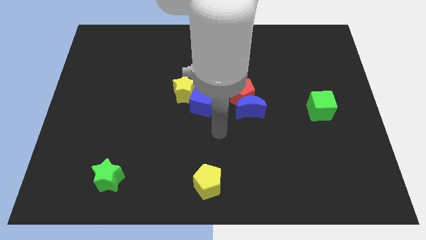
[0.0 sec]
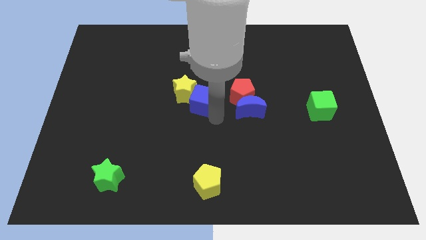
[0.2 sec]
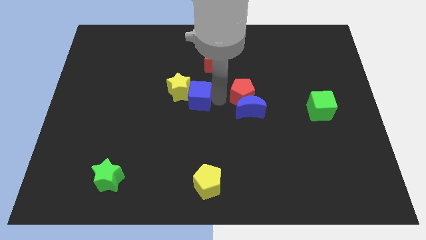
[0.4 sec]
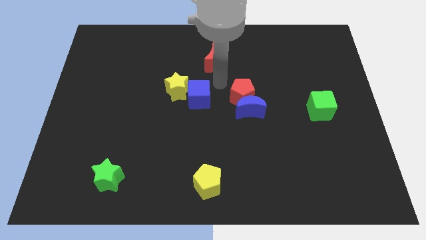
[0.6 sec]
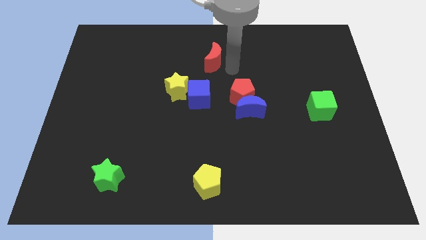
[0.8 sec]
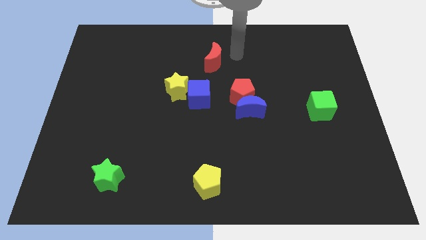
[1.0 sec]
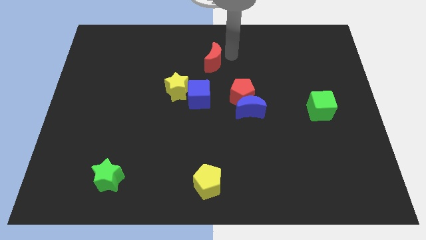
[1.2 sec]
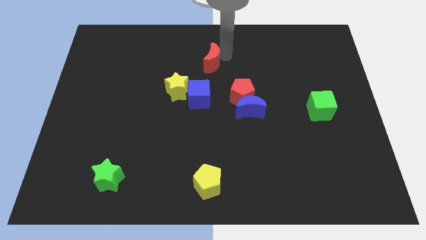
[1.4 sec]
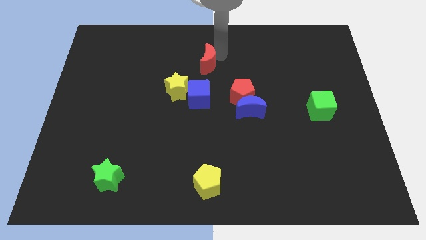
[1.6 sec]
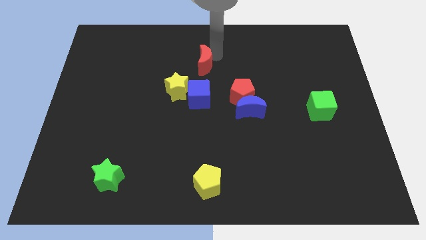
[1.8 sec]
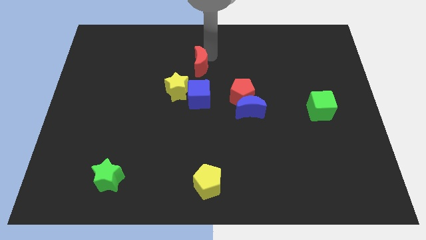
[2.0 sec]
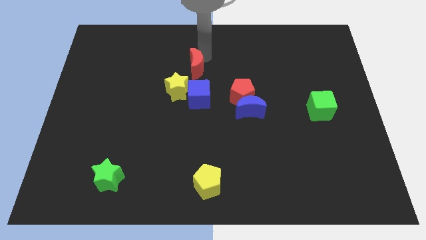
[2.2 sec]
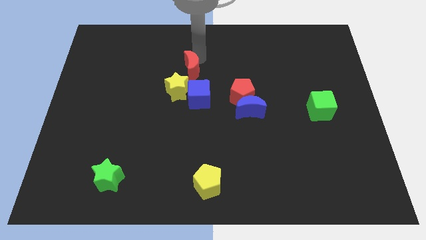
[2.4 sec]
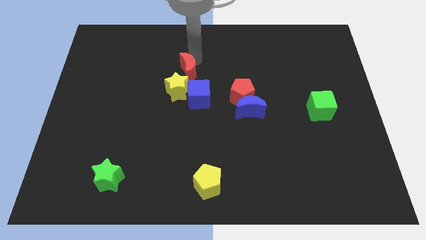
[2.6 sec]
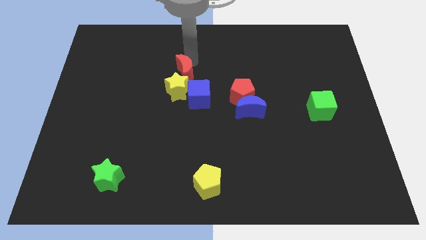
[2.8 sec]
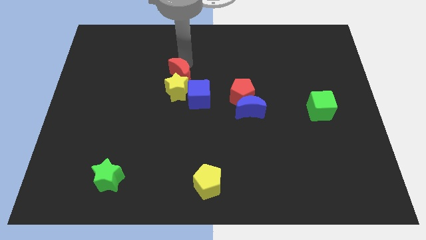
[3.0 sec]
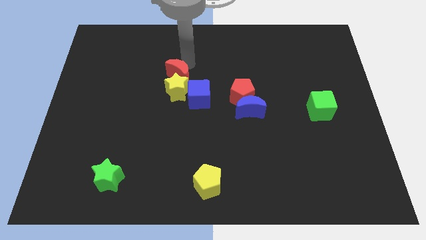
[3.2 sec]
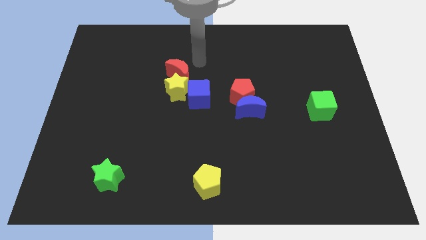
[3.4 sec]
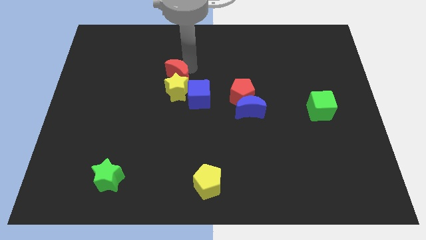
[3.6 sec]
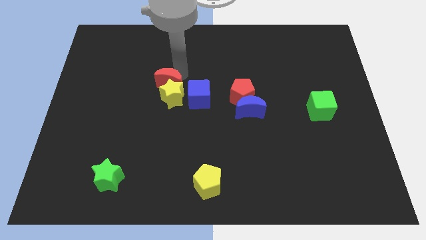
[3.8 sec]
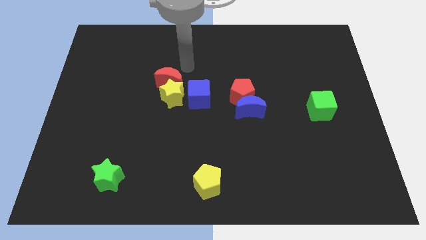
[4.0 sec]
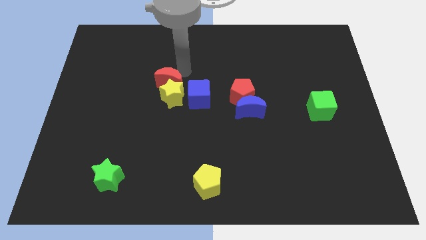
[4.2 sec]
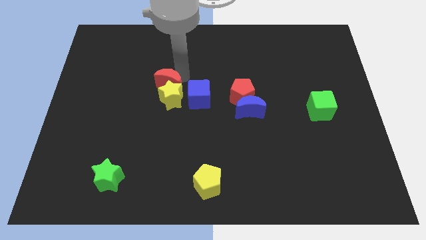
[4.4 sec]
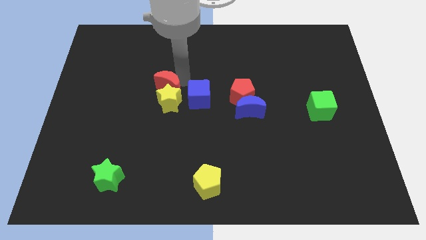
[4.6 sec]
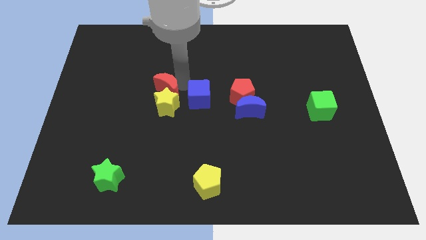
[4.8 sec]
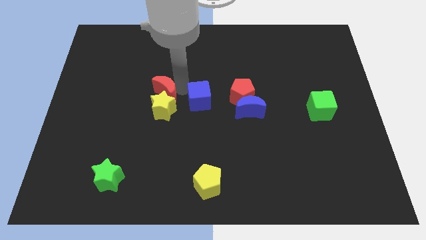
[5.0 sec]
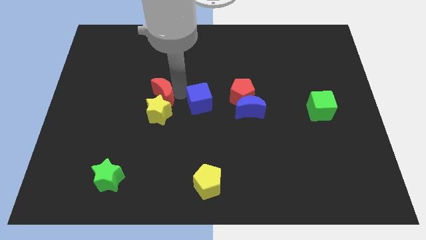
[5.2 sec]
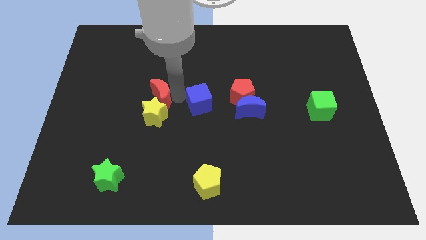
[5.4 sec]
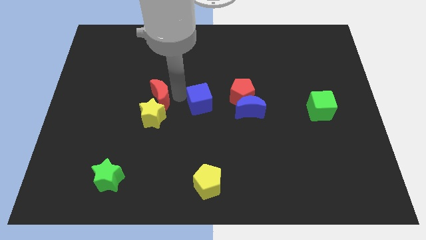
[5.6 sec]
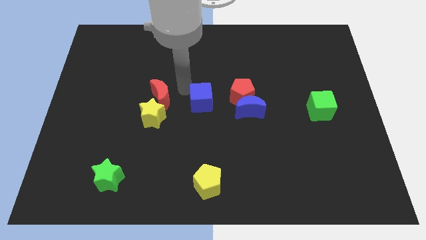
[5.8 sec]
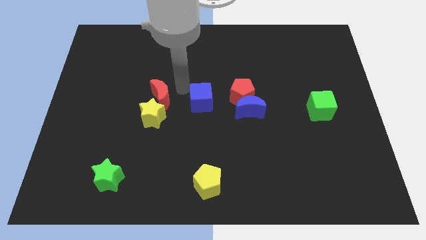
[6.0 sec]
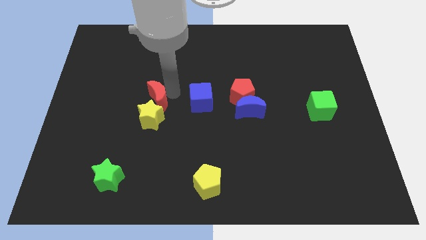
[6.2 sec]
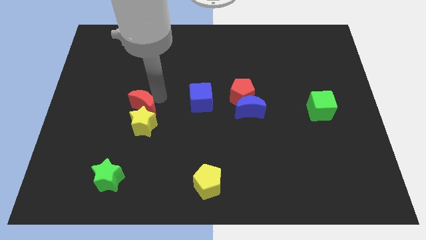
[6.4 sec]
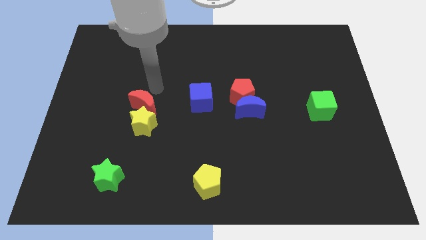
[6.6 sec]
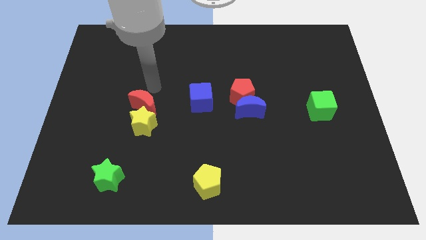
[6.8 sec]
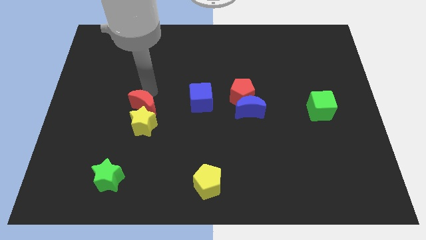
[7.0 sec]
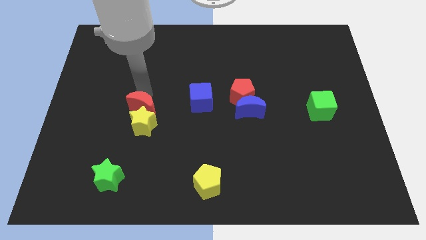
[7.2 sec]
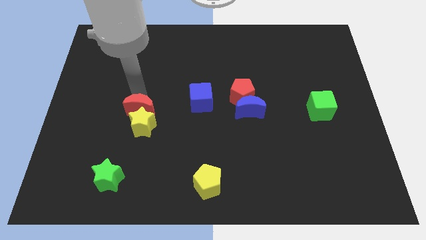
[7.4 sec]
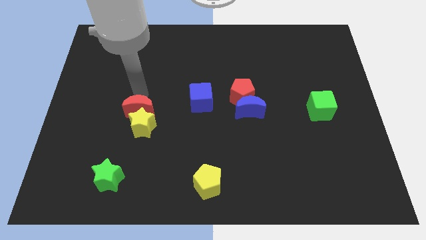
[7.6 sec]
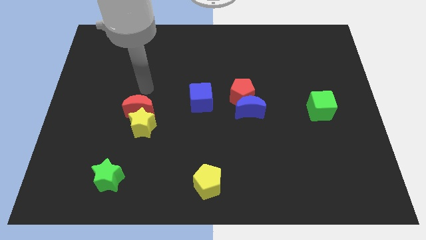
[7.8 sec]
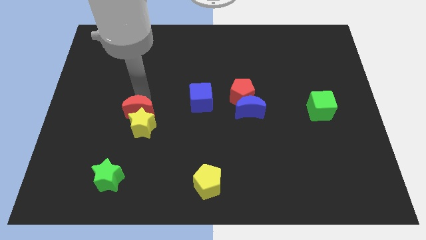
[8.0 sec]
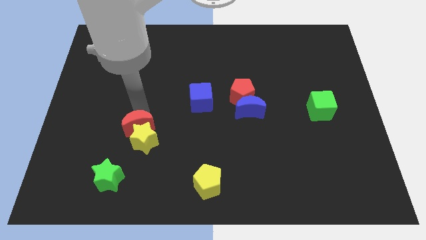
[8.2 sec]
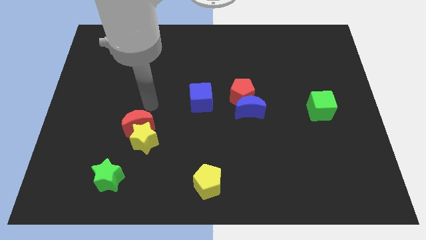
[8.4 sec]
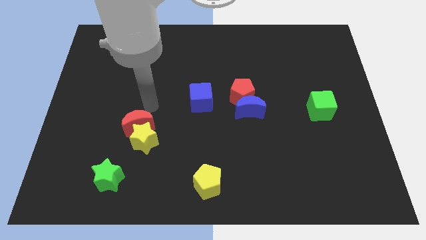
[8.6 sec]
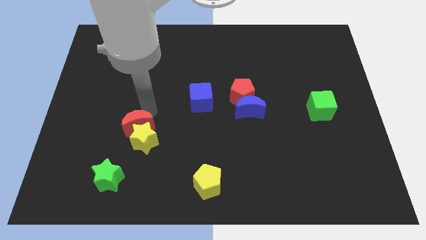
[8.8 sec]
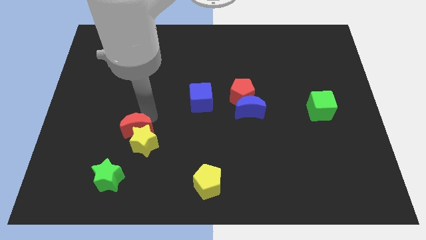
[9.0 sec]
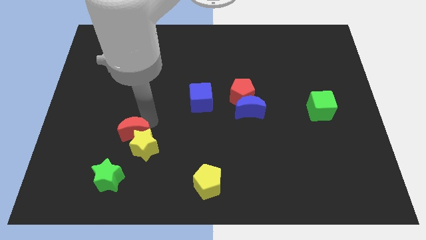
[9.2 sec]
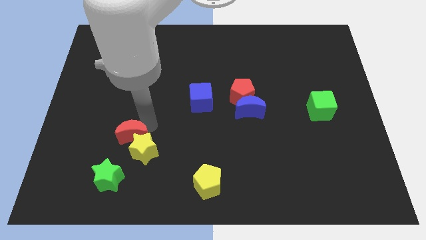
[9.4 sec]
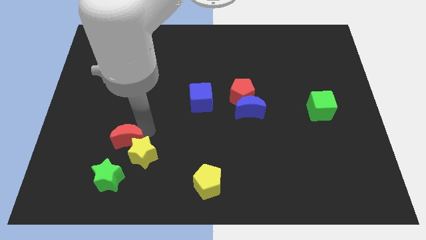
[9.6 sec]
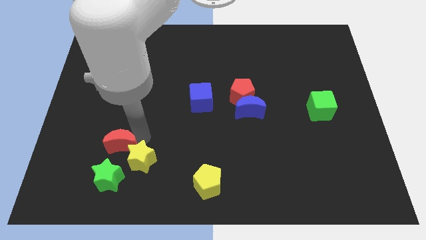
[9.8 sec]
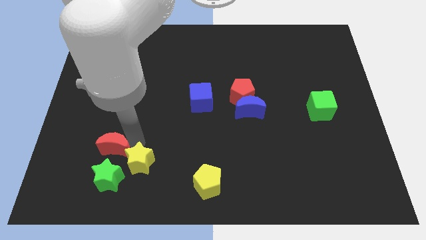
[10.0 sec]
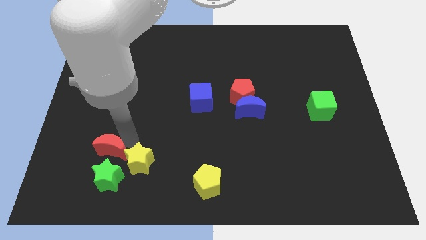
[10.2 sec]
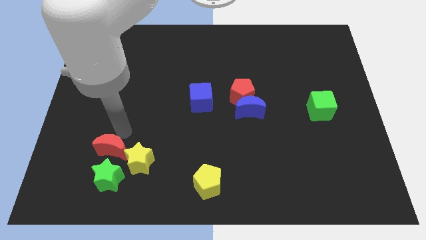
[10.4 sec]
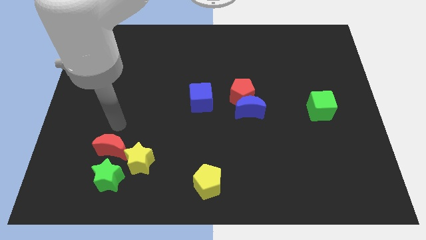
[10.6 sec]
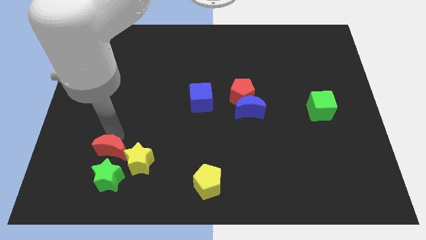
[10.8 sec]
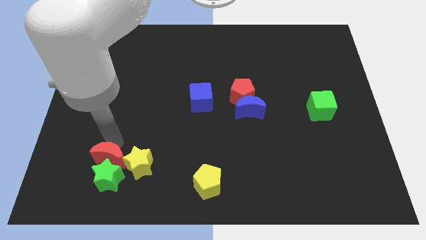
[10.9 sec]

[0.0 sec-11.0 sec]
push the red moon towards the green star

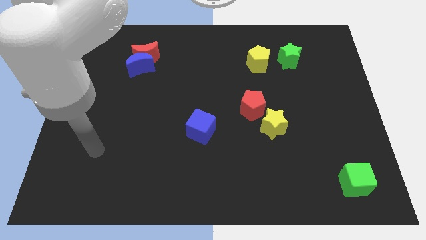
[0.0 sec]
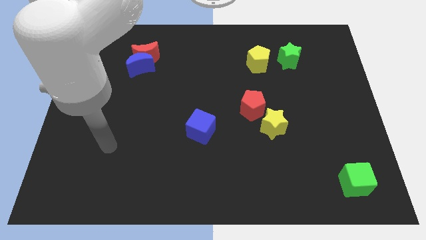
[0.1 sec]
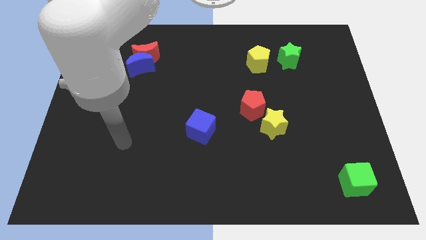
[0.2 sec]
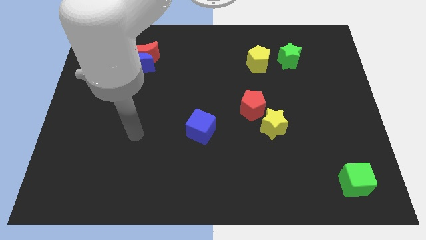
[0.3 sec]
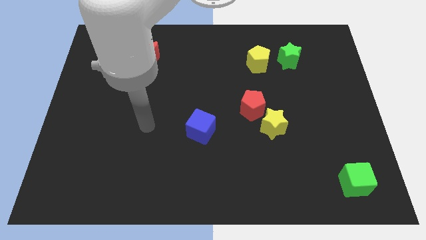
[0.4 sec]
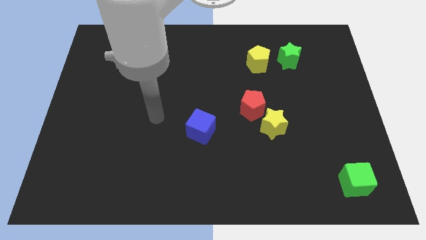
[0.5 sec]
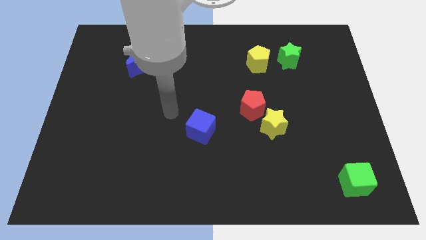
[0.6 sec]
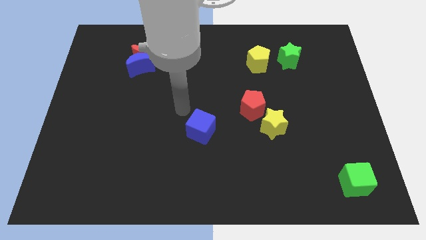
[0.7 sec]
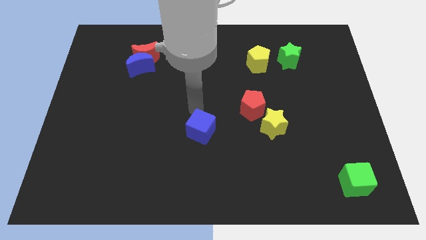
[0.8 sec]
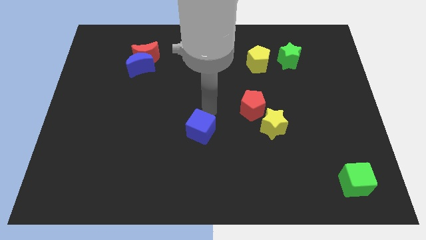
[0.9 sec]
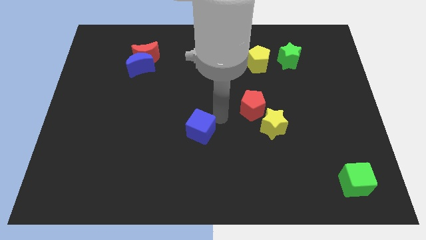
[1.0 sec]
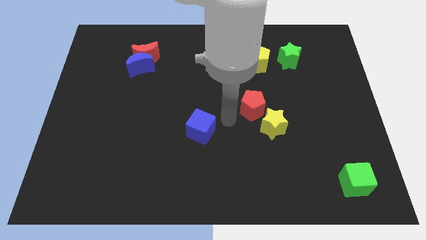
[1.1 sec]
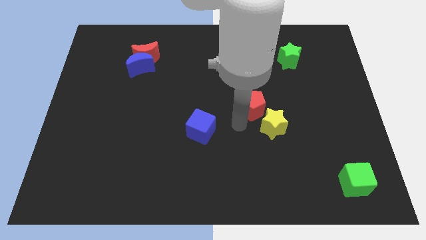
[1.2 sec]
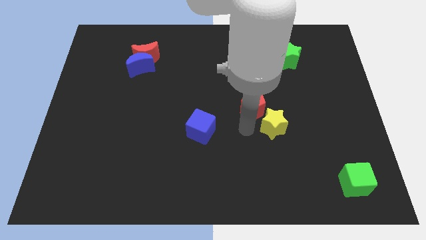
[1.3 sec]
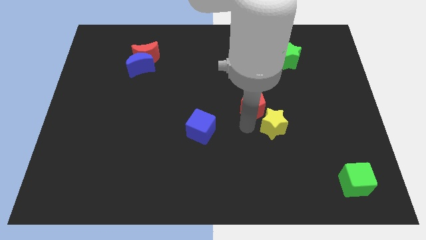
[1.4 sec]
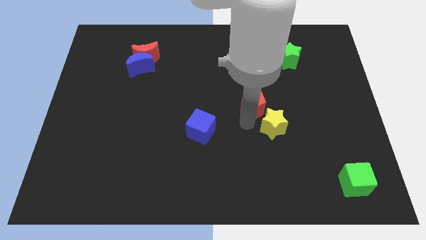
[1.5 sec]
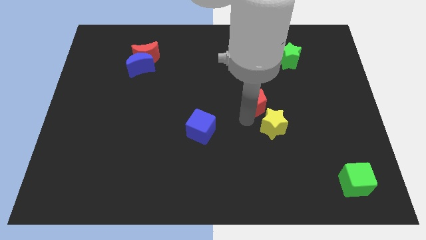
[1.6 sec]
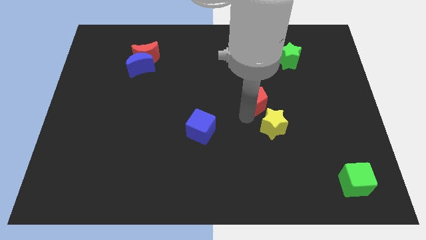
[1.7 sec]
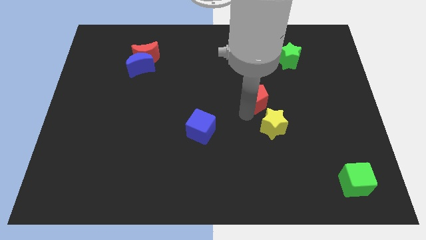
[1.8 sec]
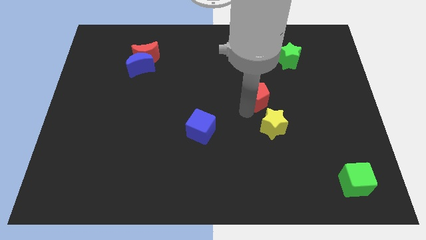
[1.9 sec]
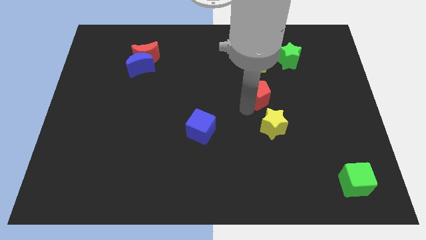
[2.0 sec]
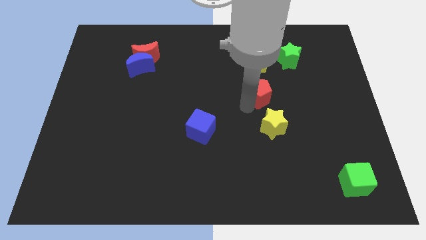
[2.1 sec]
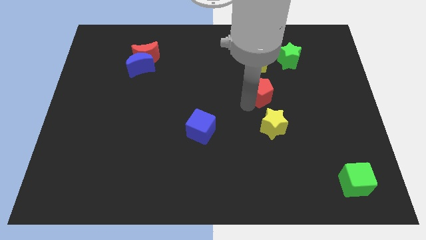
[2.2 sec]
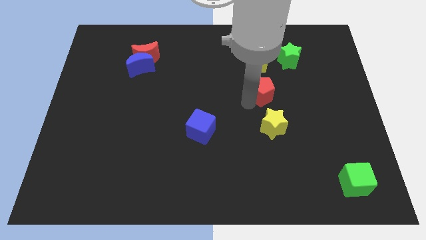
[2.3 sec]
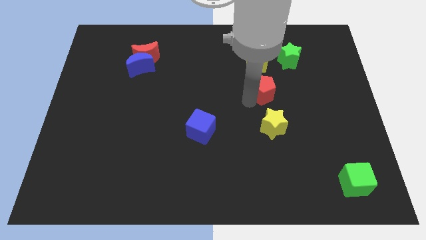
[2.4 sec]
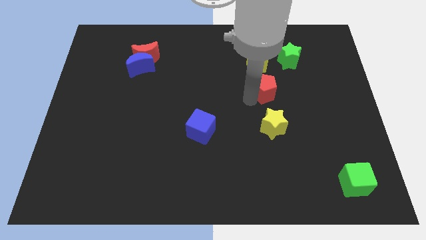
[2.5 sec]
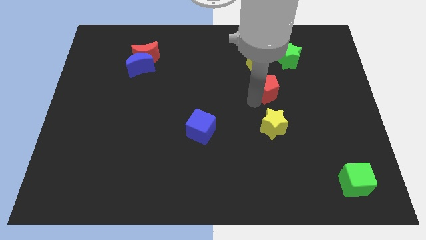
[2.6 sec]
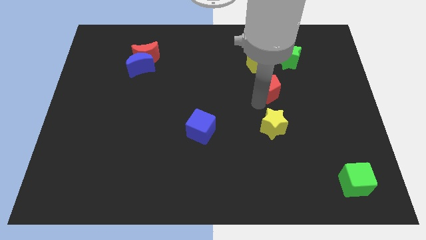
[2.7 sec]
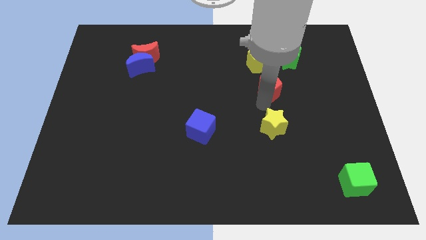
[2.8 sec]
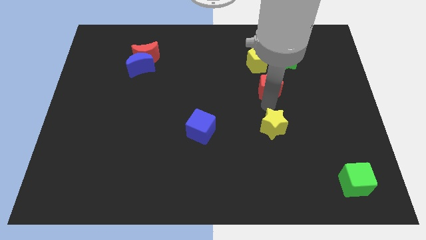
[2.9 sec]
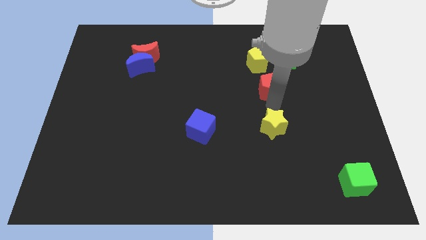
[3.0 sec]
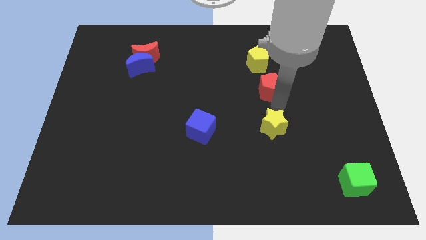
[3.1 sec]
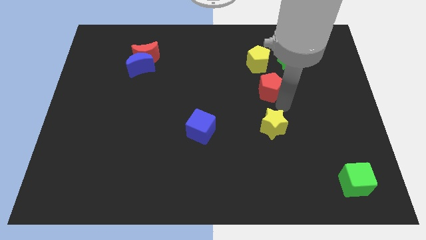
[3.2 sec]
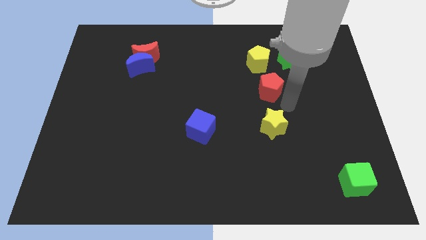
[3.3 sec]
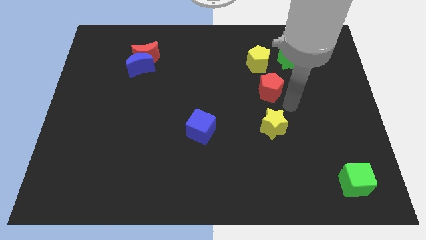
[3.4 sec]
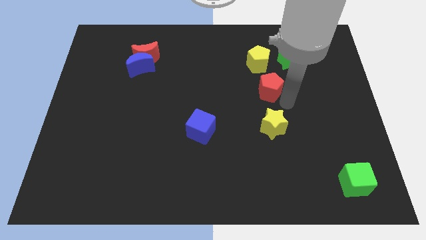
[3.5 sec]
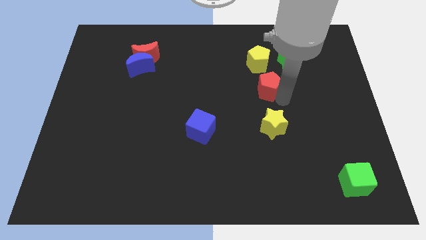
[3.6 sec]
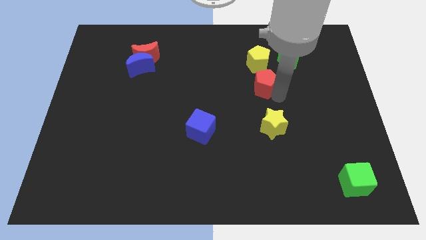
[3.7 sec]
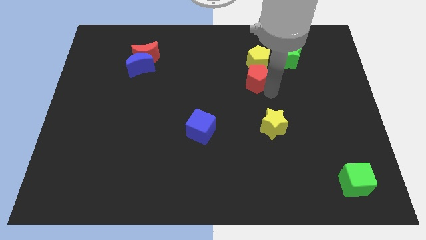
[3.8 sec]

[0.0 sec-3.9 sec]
push the red pentagon next to the yellow pentagon
